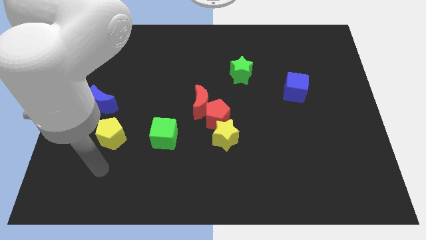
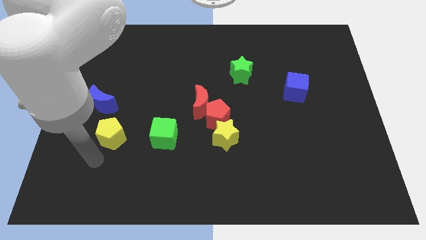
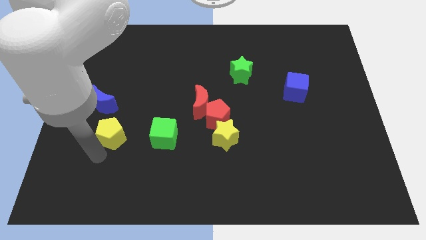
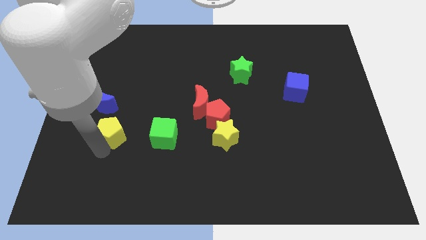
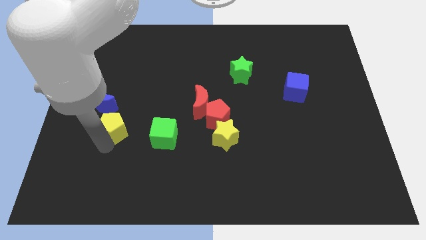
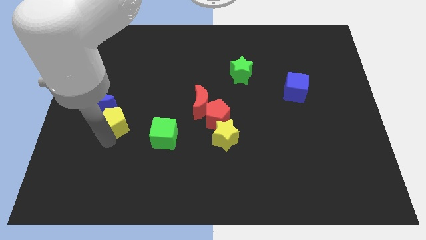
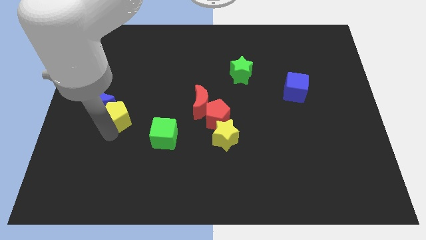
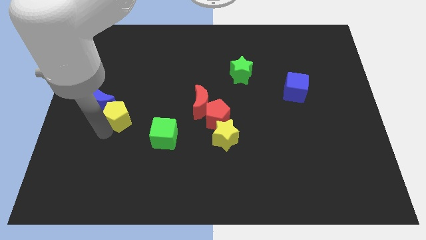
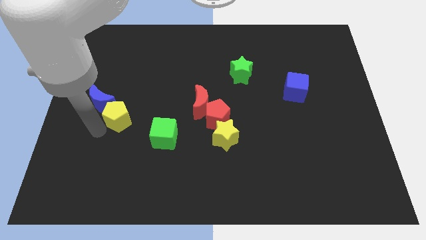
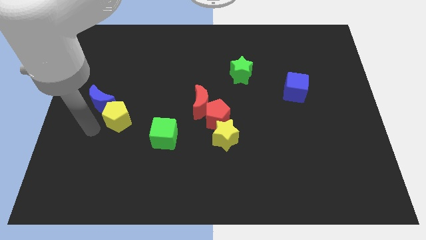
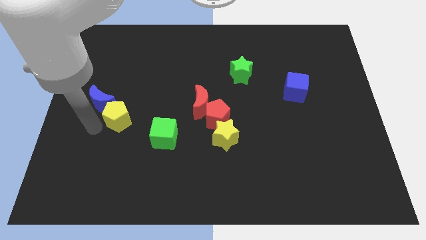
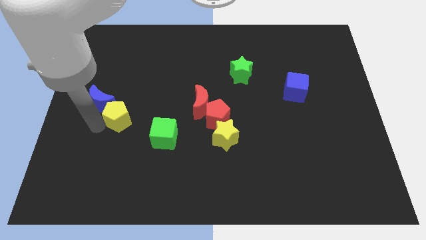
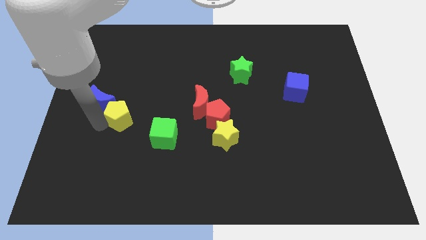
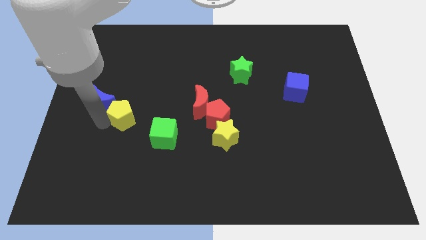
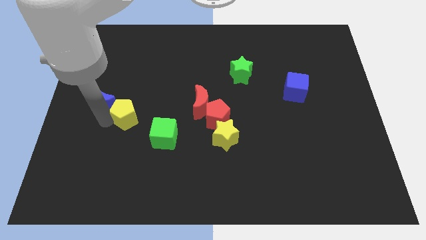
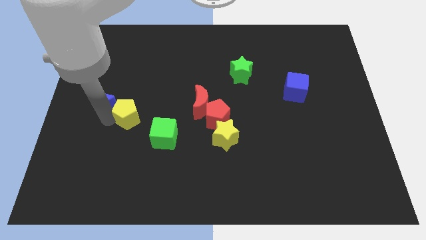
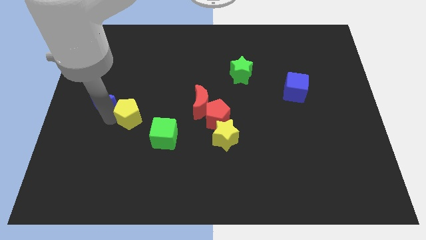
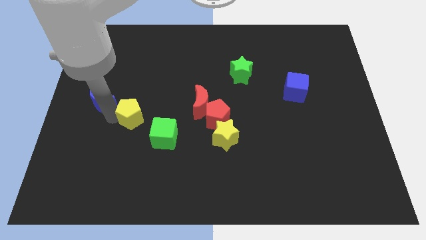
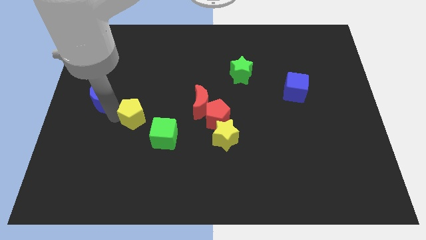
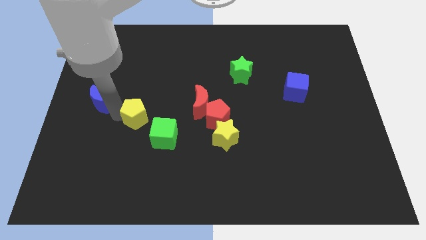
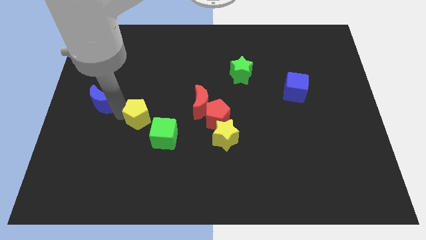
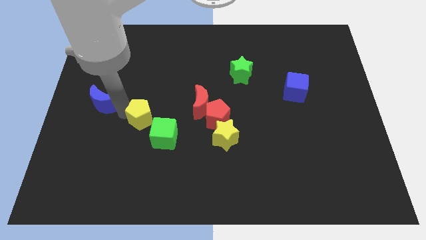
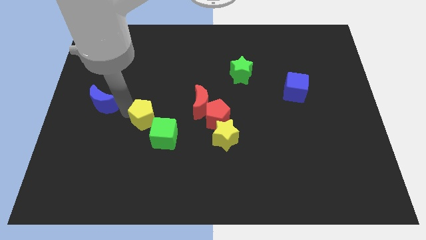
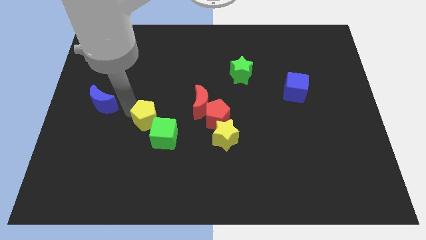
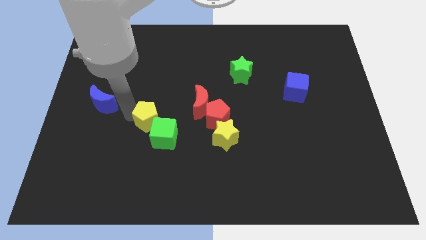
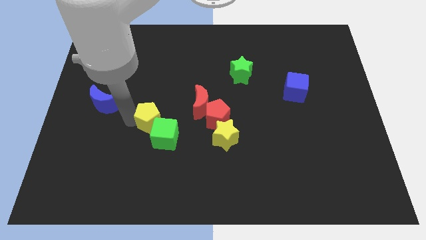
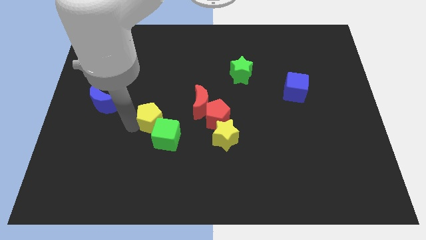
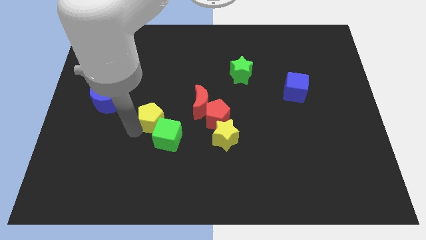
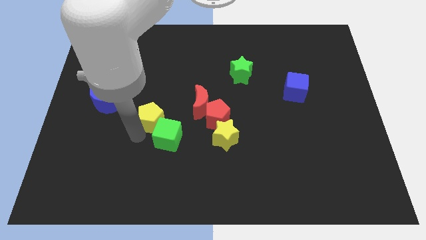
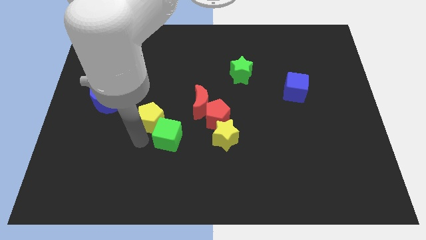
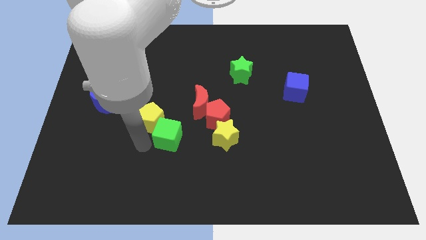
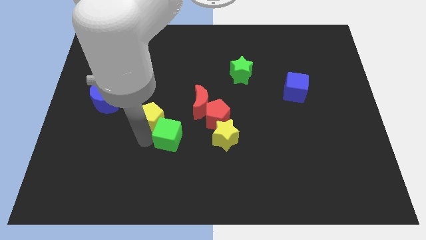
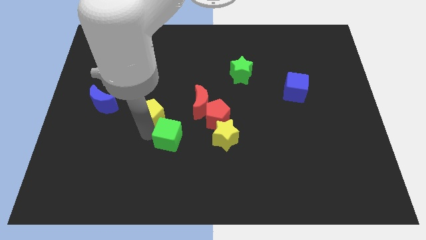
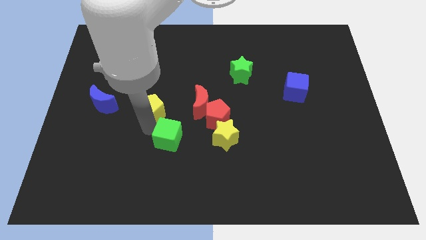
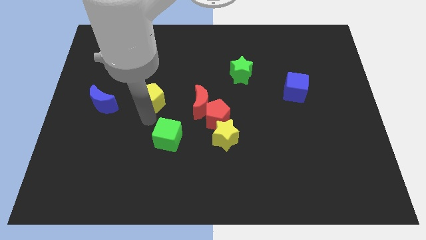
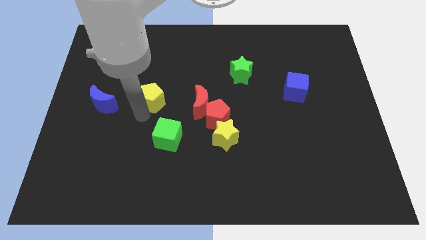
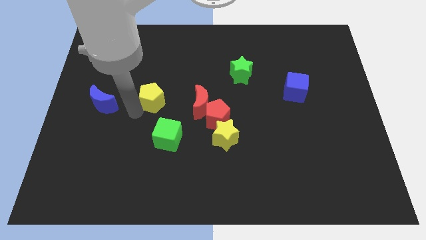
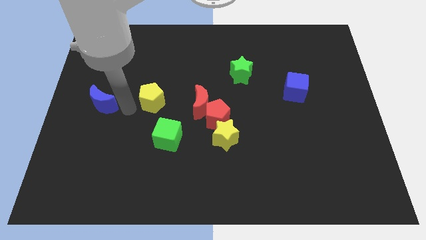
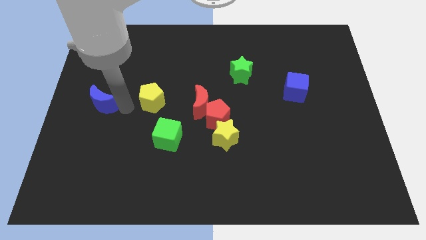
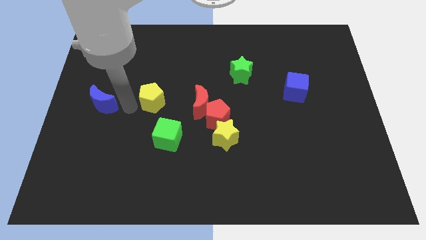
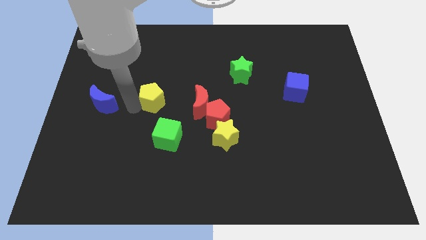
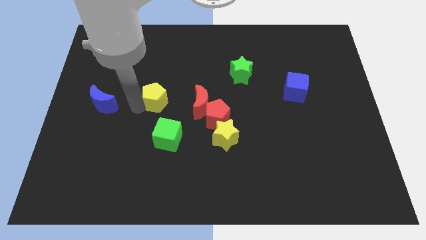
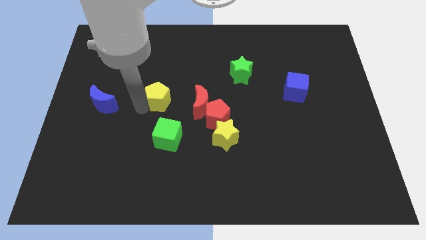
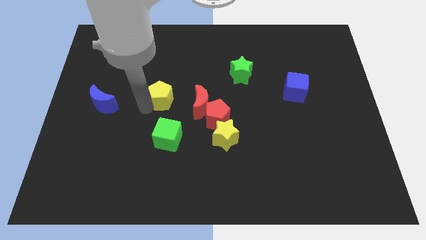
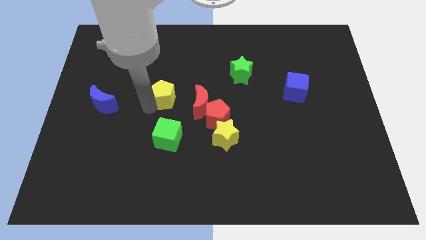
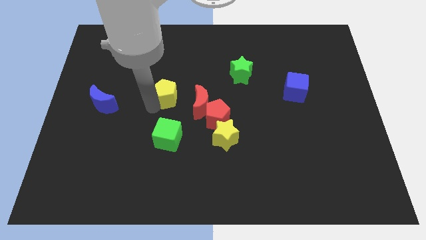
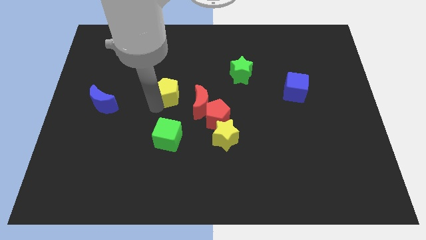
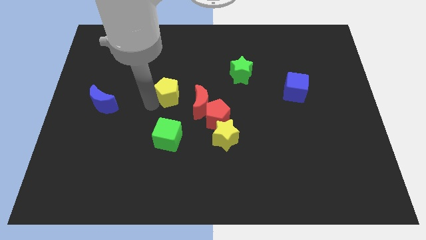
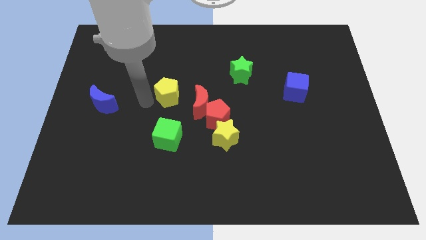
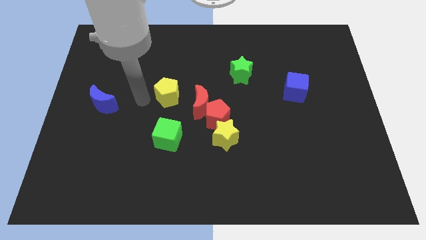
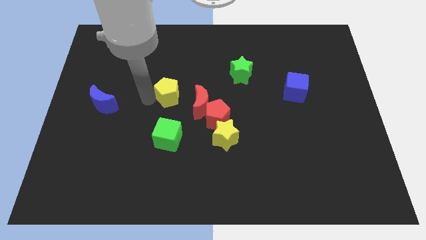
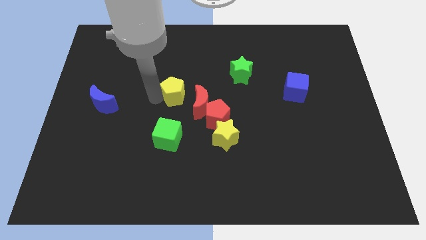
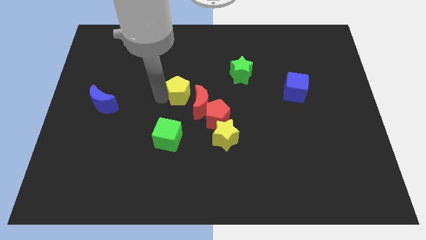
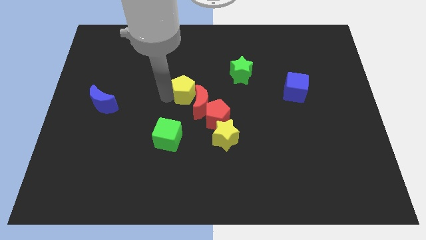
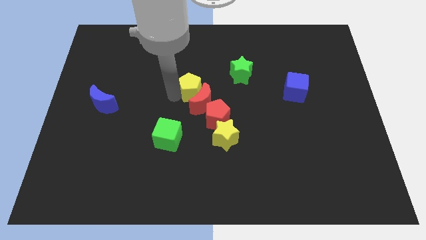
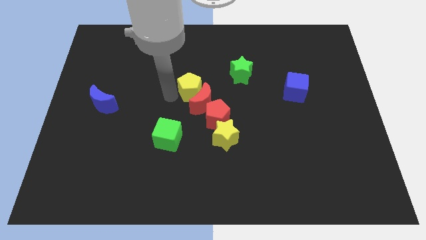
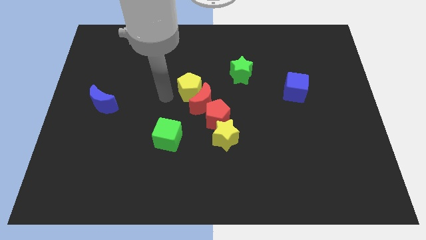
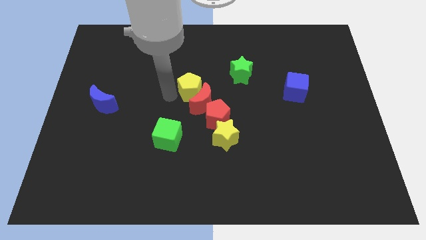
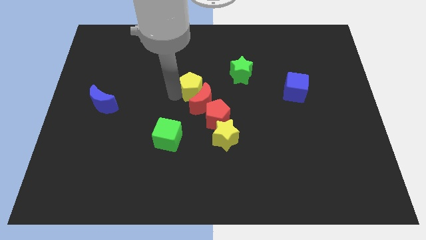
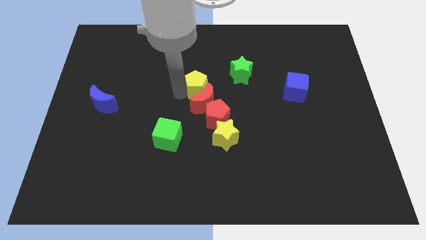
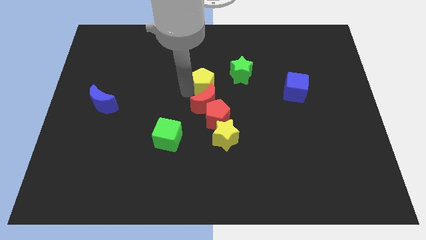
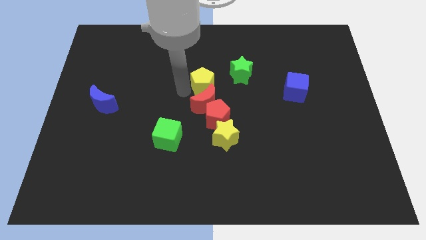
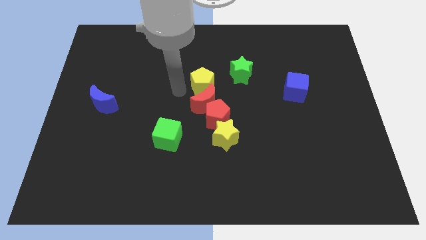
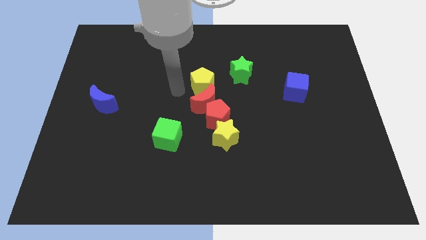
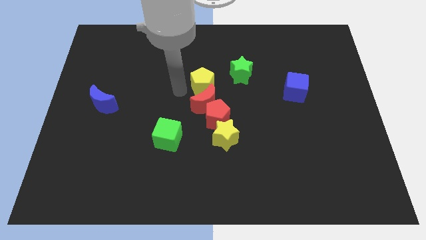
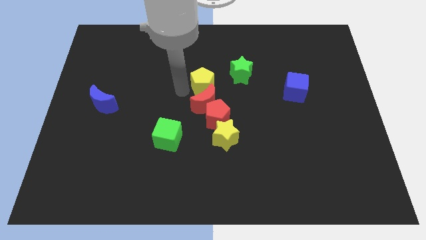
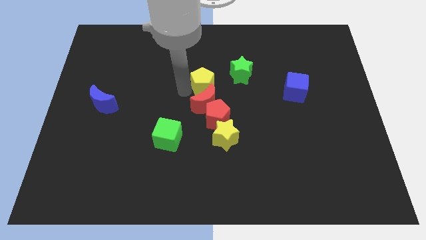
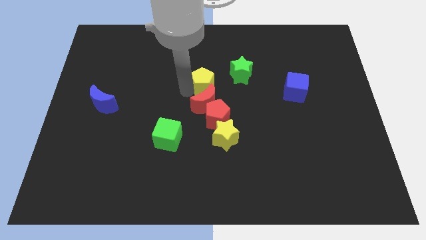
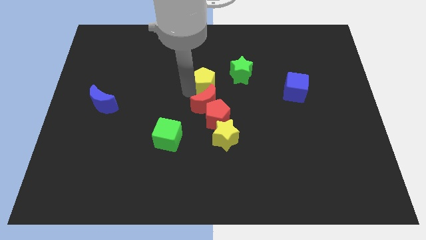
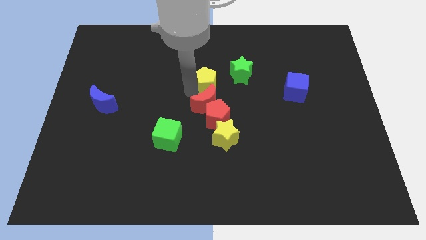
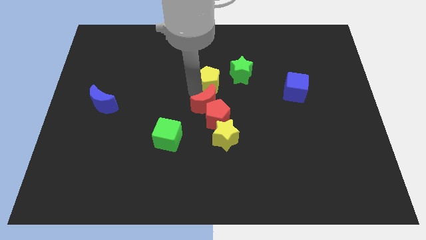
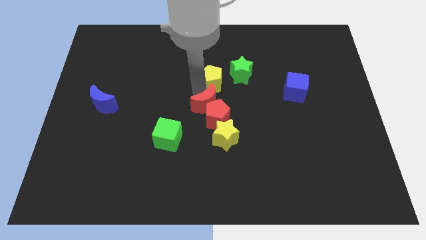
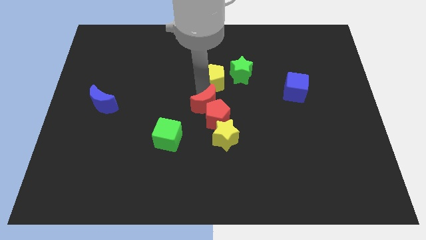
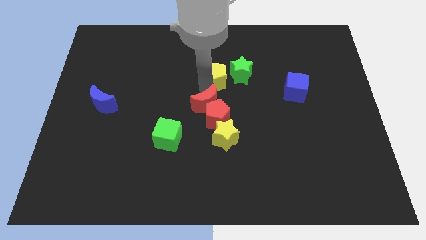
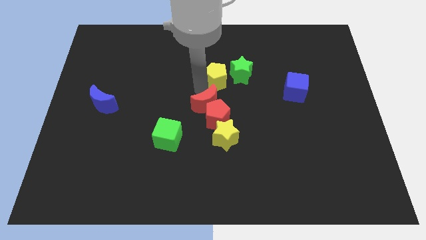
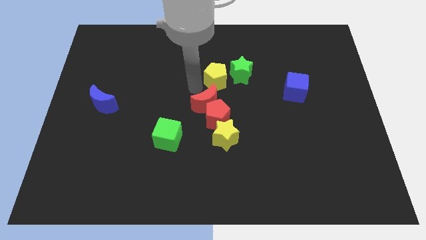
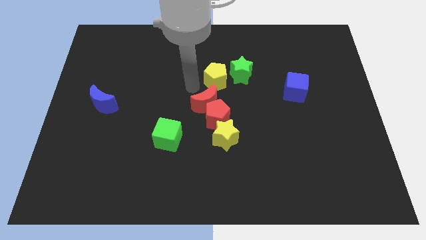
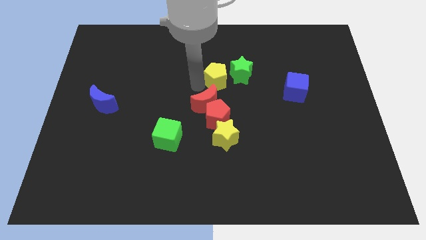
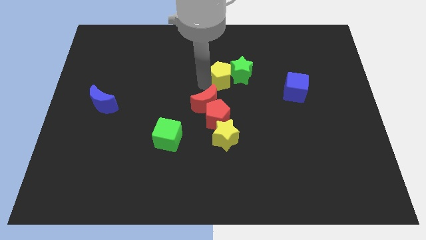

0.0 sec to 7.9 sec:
slide the yellow pentagon next to the green star
